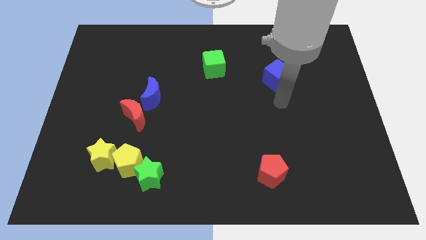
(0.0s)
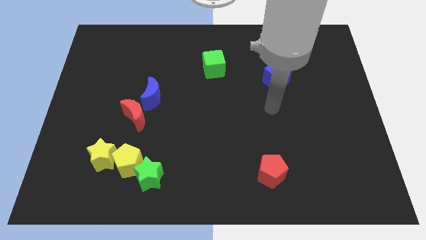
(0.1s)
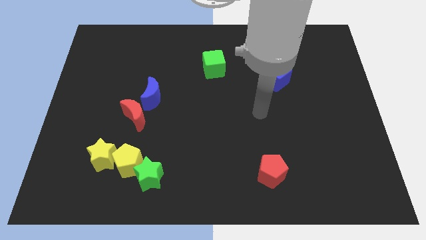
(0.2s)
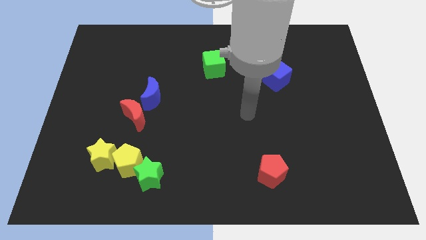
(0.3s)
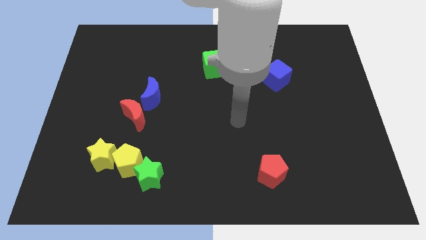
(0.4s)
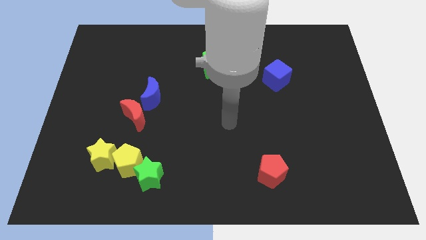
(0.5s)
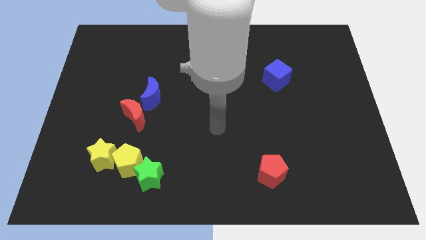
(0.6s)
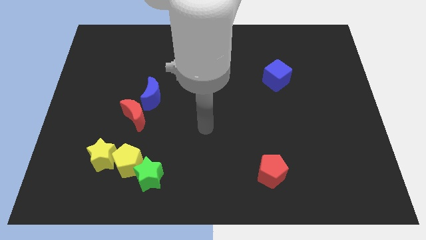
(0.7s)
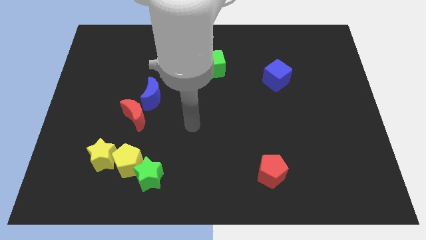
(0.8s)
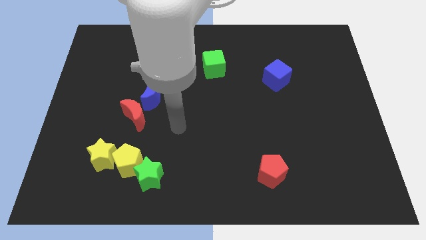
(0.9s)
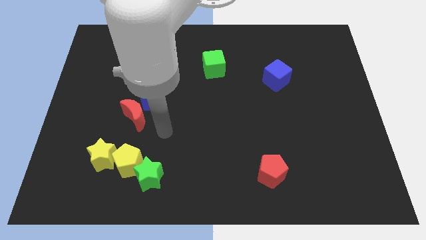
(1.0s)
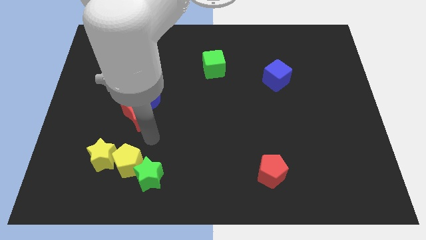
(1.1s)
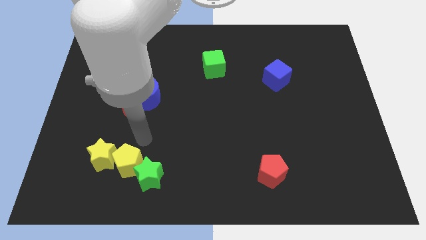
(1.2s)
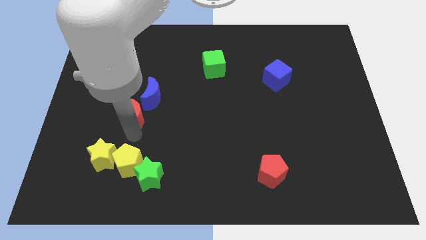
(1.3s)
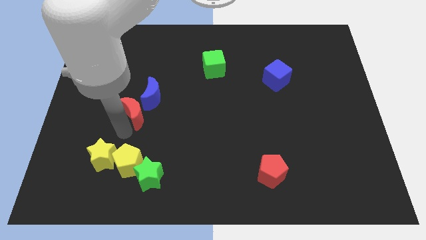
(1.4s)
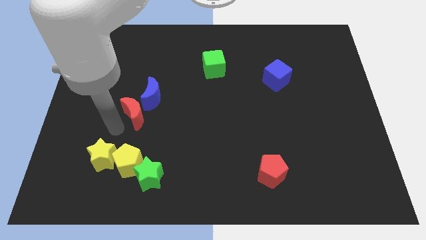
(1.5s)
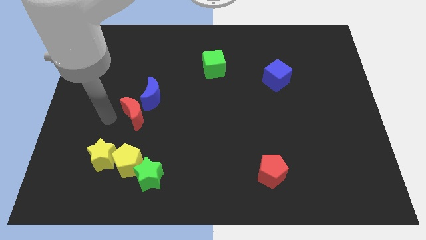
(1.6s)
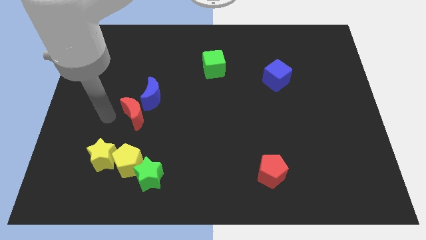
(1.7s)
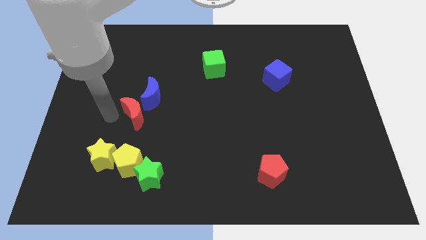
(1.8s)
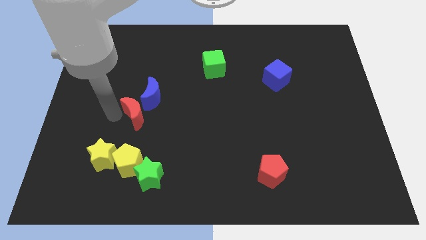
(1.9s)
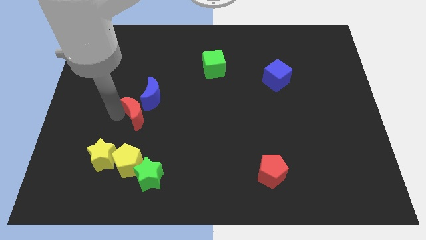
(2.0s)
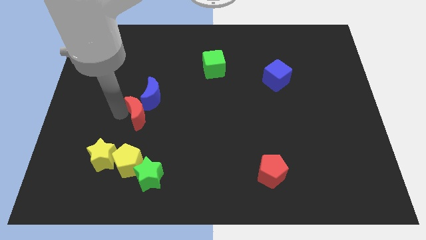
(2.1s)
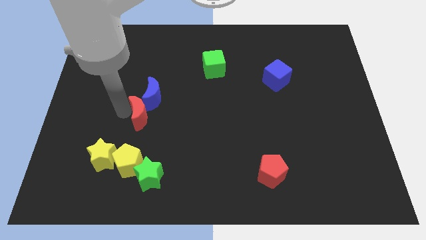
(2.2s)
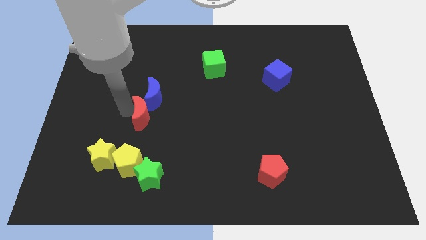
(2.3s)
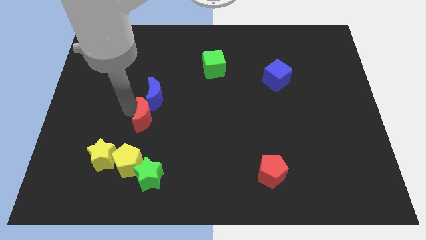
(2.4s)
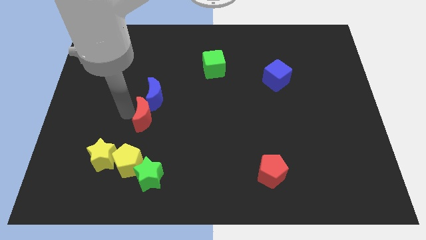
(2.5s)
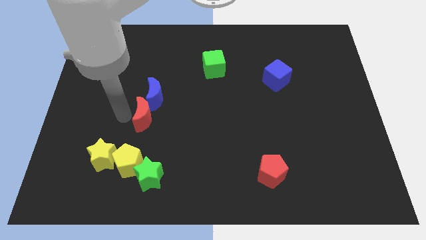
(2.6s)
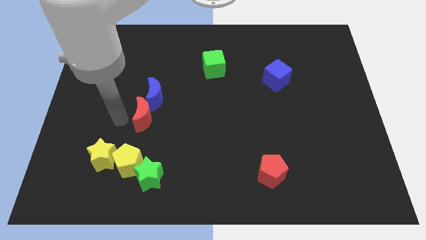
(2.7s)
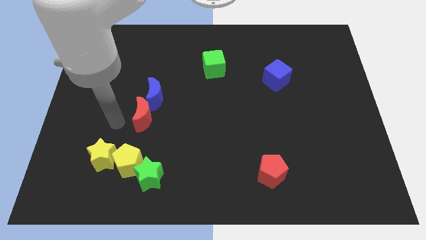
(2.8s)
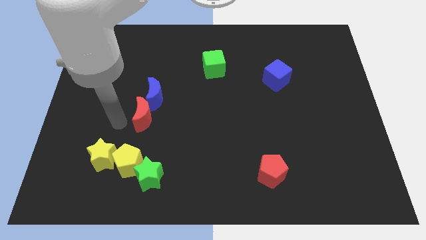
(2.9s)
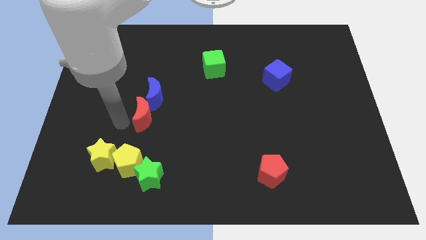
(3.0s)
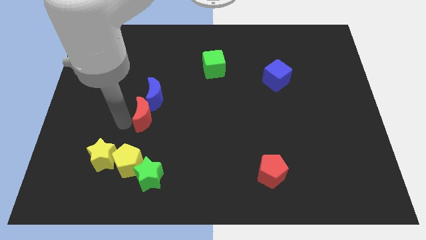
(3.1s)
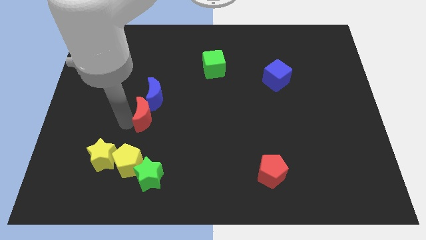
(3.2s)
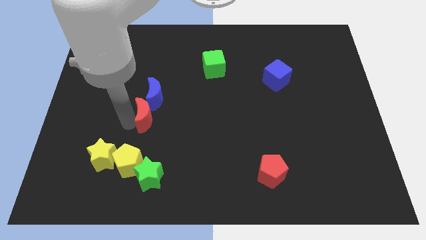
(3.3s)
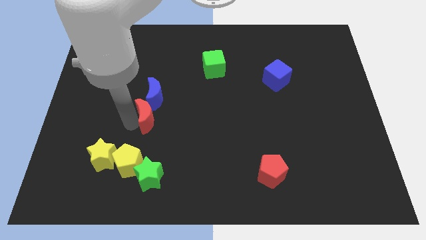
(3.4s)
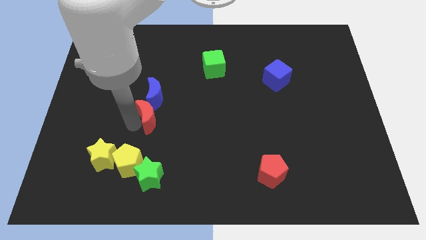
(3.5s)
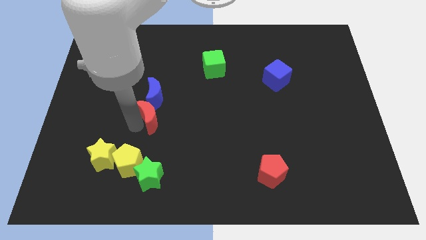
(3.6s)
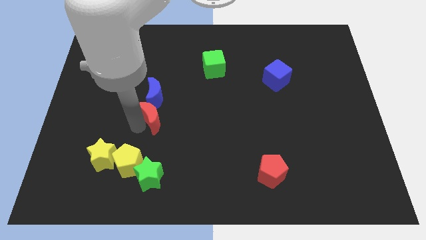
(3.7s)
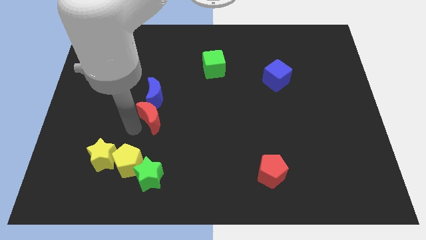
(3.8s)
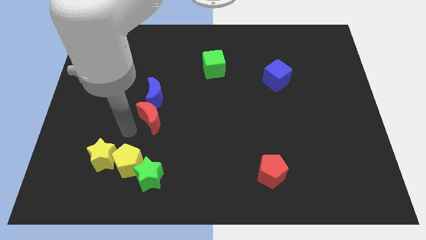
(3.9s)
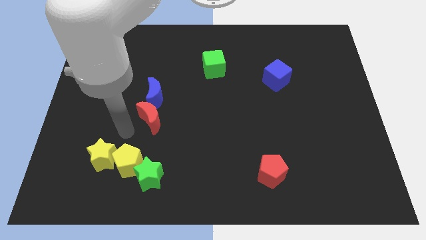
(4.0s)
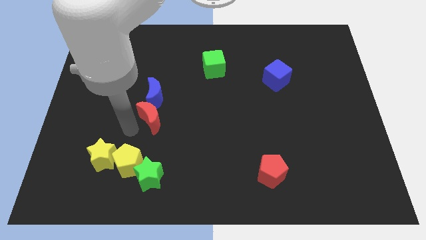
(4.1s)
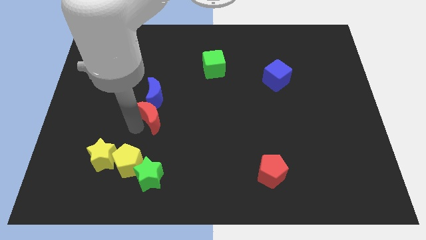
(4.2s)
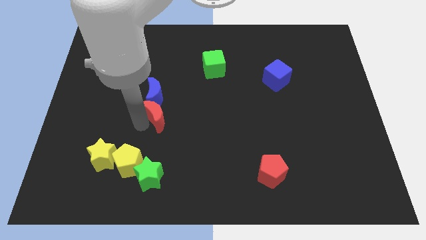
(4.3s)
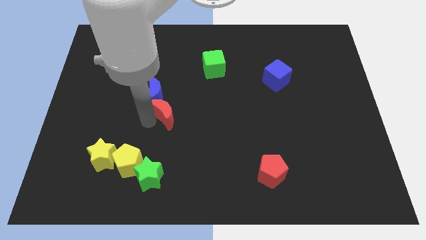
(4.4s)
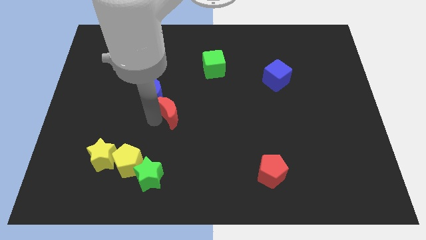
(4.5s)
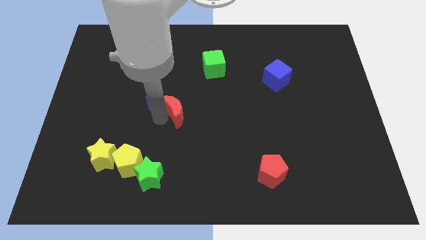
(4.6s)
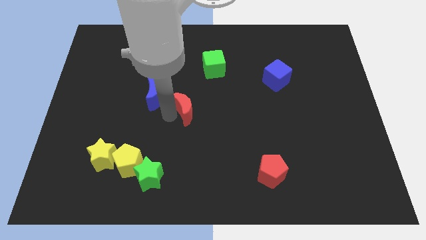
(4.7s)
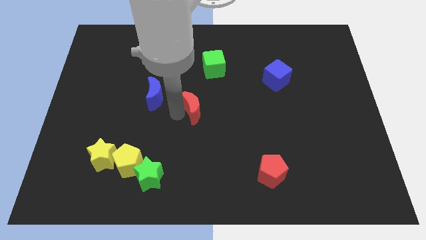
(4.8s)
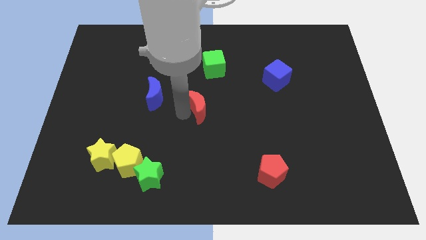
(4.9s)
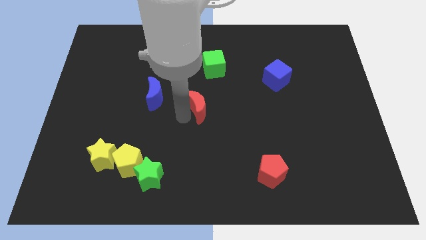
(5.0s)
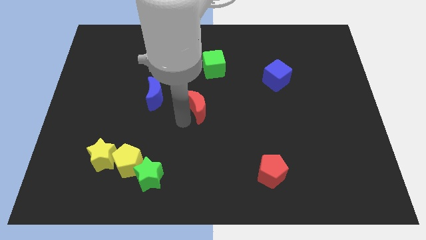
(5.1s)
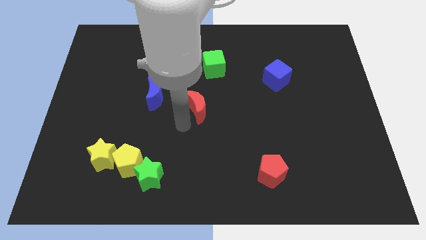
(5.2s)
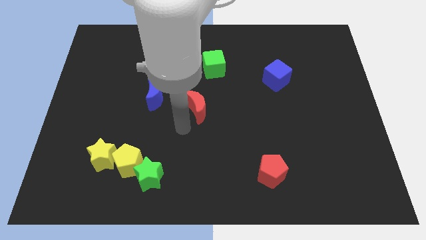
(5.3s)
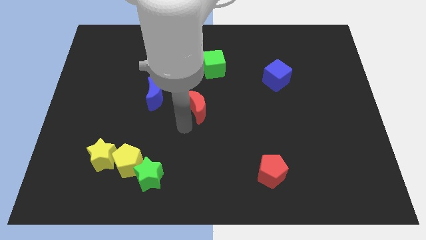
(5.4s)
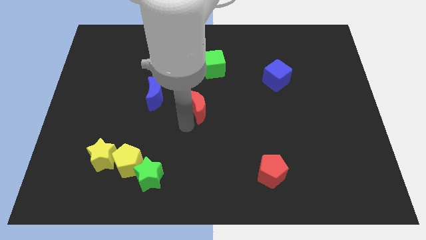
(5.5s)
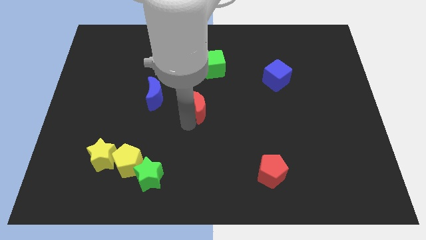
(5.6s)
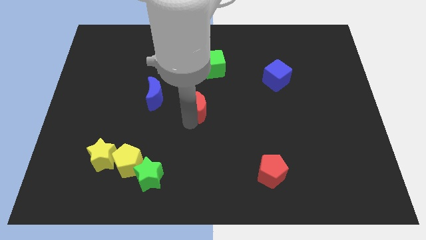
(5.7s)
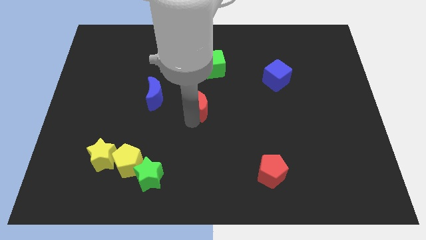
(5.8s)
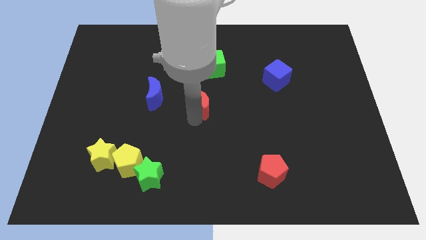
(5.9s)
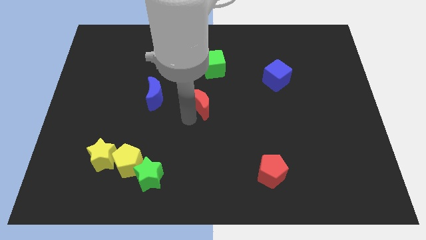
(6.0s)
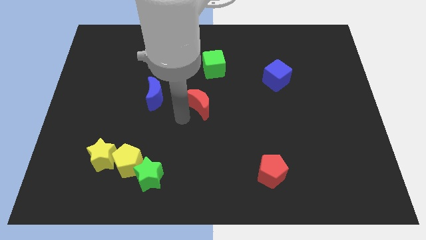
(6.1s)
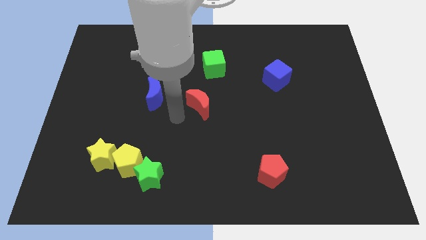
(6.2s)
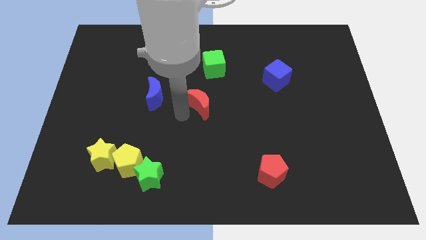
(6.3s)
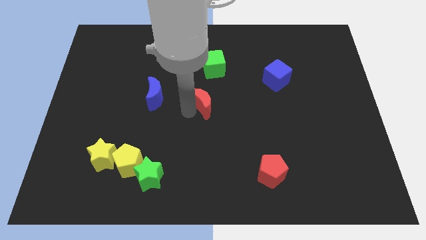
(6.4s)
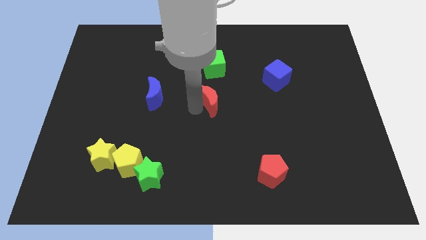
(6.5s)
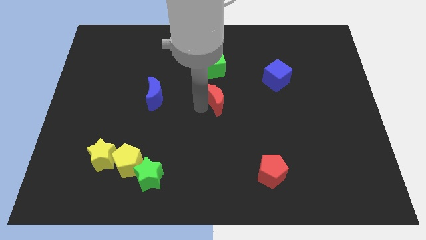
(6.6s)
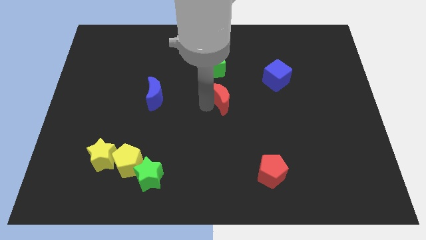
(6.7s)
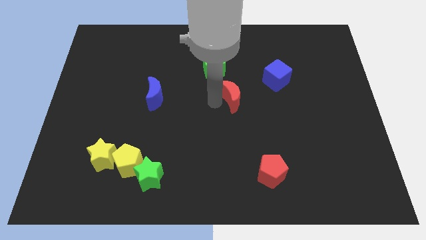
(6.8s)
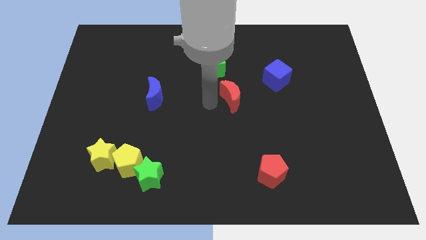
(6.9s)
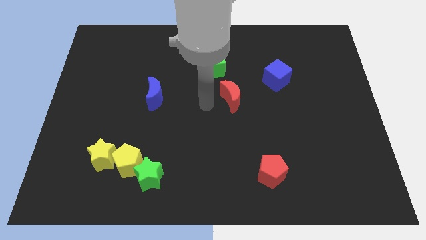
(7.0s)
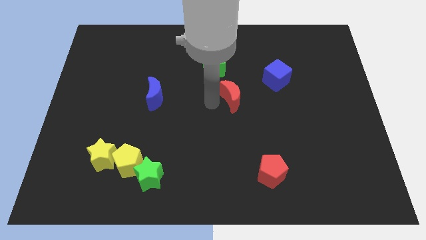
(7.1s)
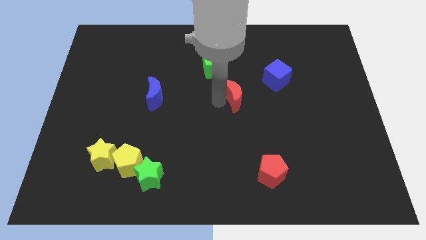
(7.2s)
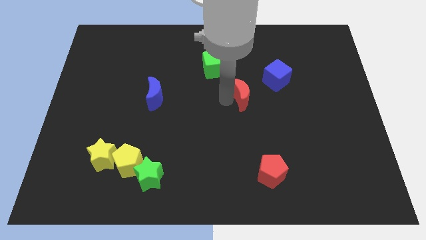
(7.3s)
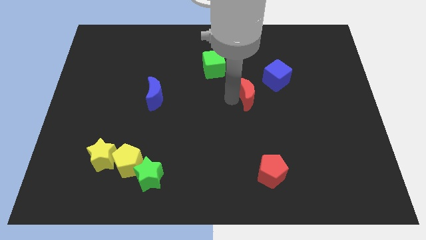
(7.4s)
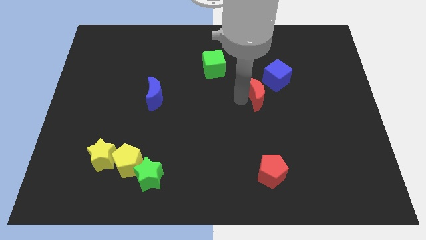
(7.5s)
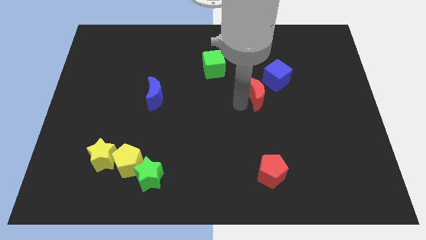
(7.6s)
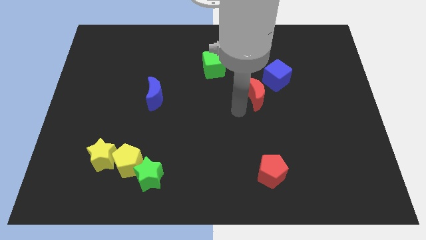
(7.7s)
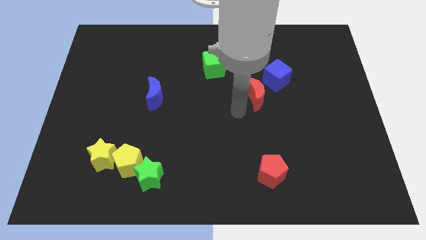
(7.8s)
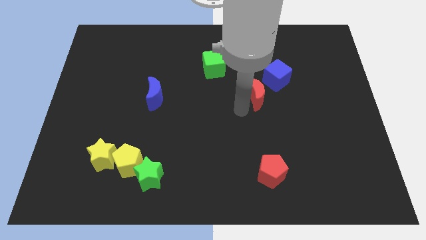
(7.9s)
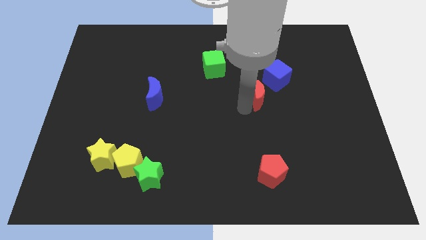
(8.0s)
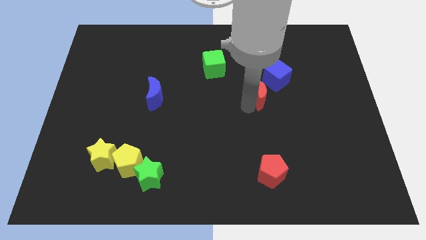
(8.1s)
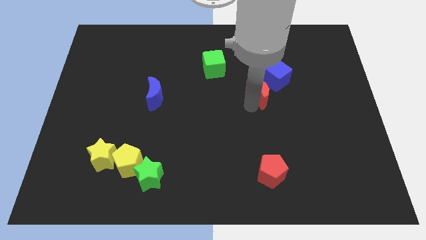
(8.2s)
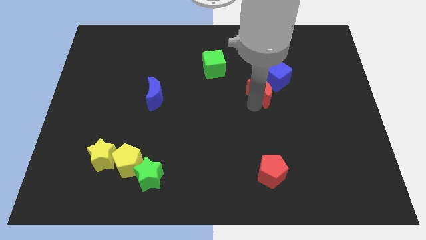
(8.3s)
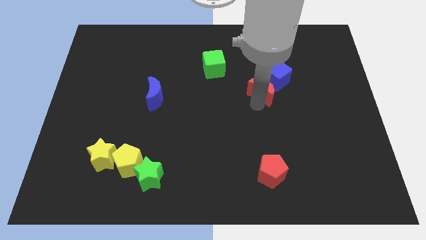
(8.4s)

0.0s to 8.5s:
push the red moon to the blue cube
